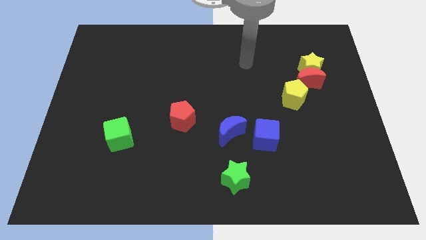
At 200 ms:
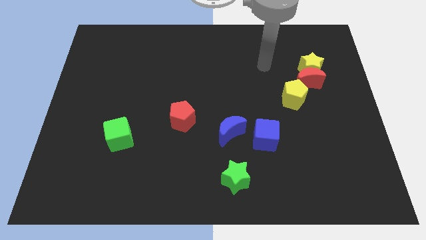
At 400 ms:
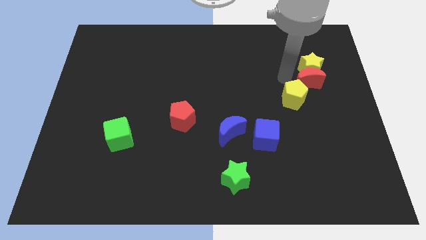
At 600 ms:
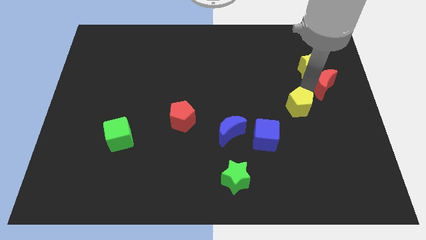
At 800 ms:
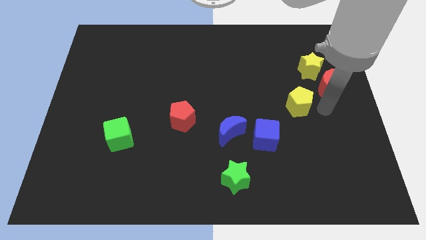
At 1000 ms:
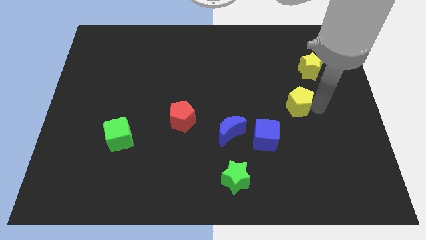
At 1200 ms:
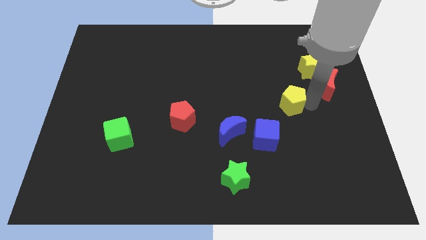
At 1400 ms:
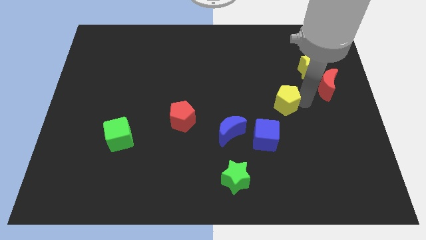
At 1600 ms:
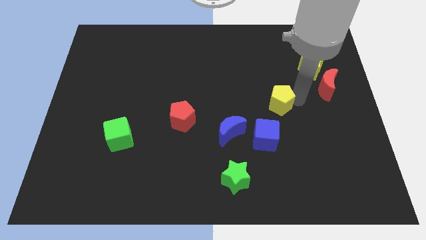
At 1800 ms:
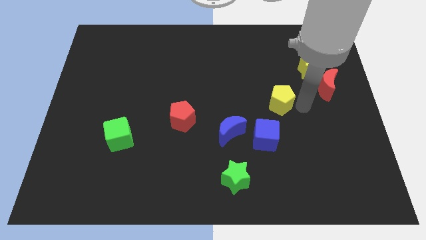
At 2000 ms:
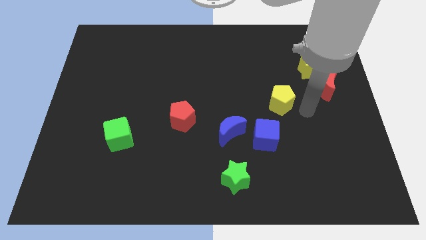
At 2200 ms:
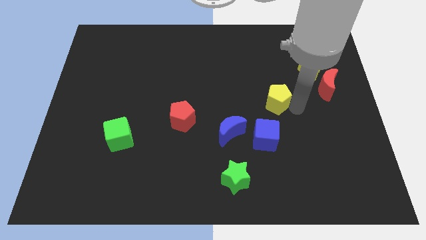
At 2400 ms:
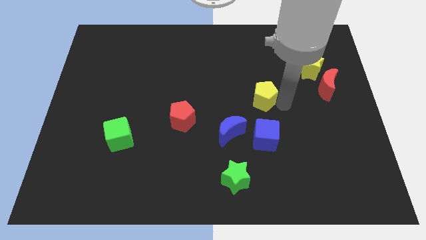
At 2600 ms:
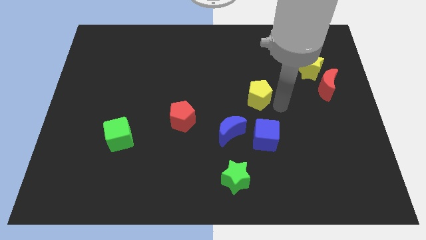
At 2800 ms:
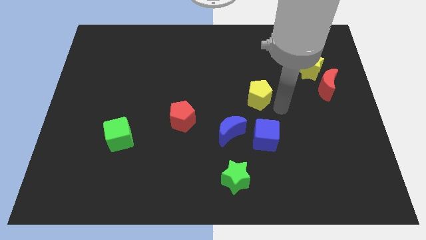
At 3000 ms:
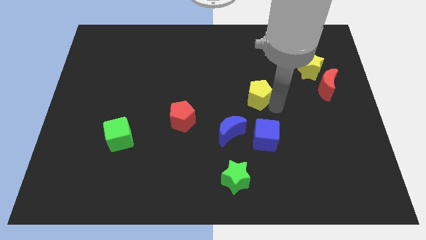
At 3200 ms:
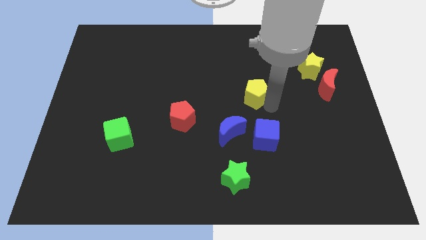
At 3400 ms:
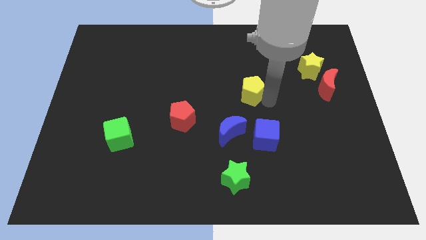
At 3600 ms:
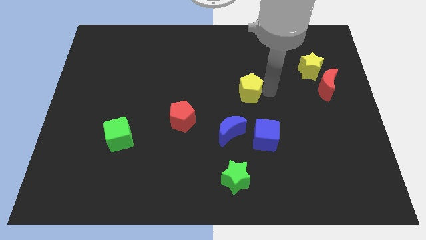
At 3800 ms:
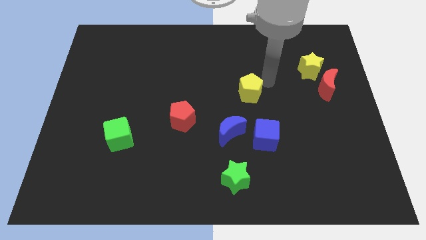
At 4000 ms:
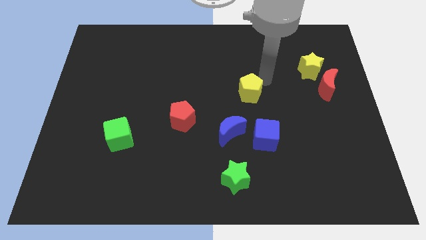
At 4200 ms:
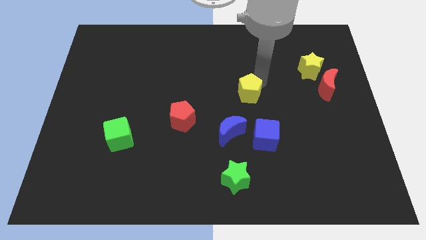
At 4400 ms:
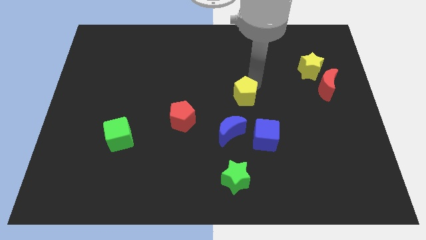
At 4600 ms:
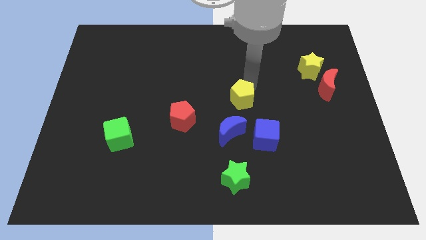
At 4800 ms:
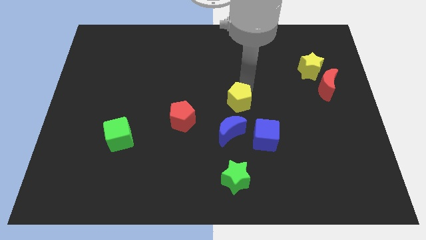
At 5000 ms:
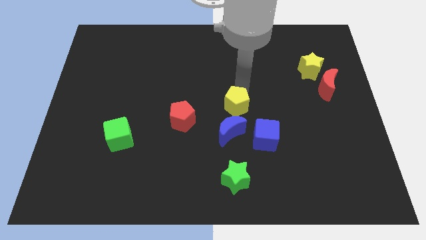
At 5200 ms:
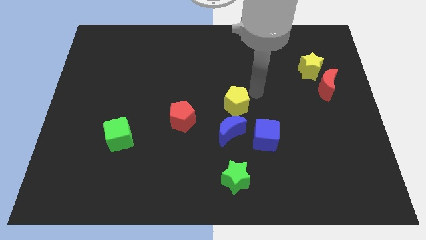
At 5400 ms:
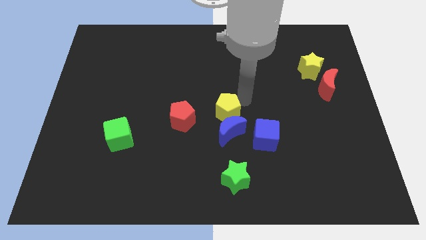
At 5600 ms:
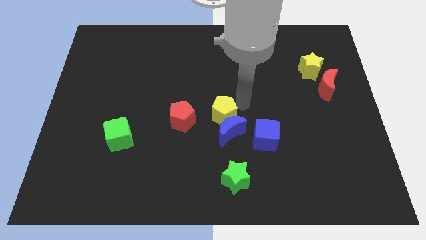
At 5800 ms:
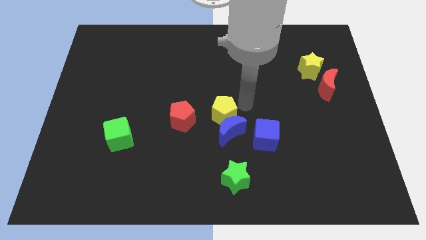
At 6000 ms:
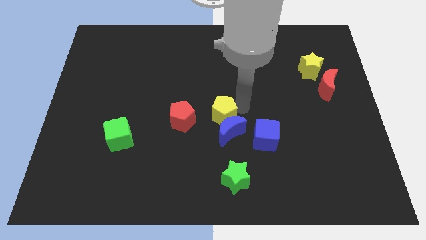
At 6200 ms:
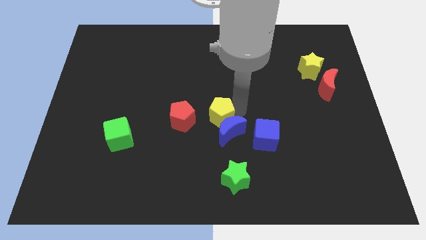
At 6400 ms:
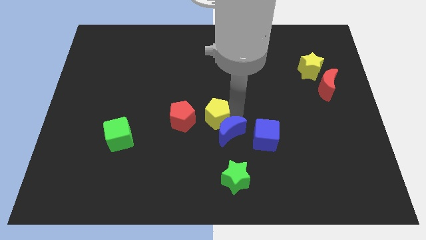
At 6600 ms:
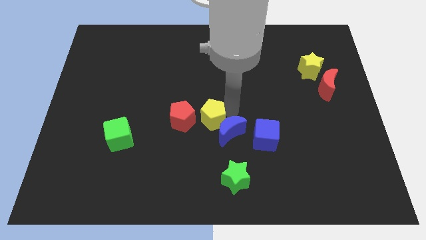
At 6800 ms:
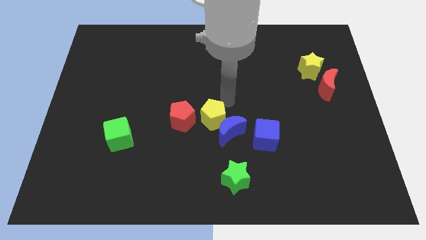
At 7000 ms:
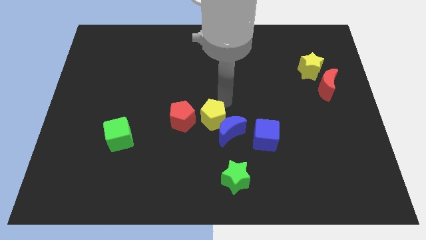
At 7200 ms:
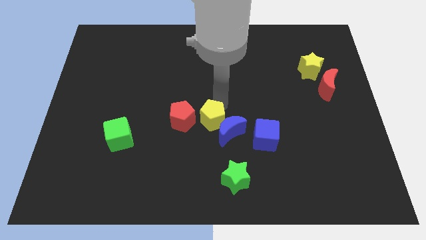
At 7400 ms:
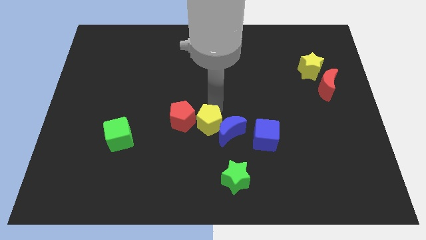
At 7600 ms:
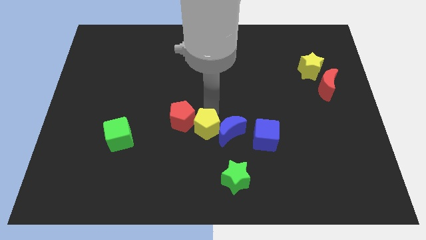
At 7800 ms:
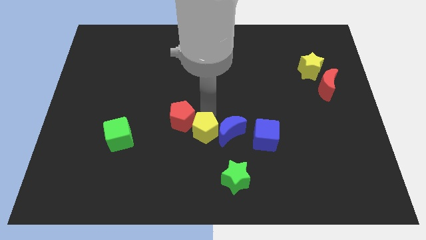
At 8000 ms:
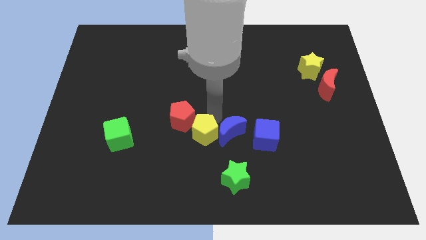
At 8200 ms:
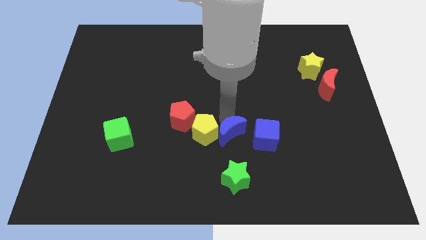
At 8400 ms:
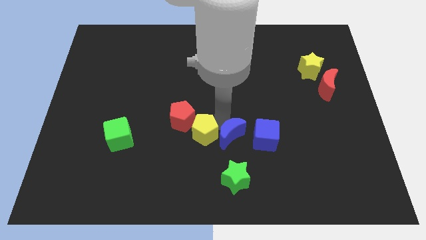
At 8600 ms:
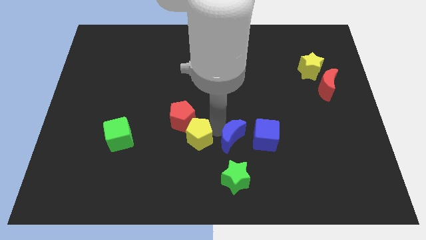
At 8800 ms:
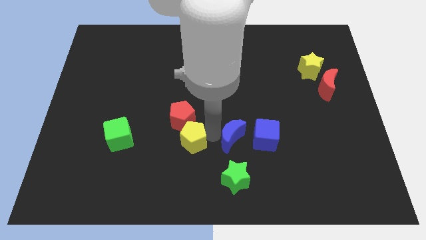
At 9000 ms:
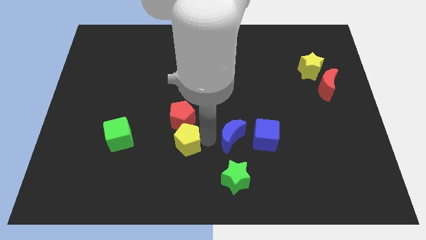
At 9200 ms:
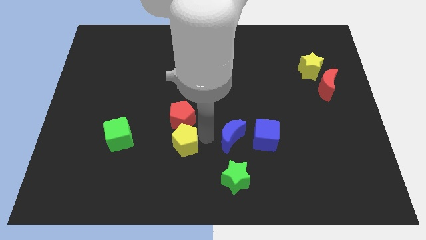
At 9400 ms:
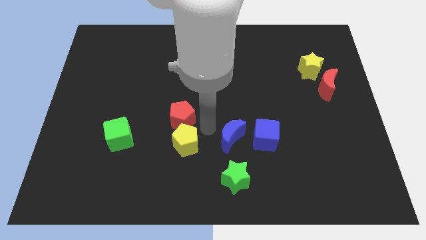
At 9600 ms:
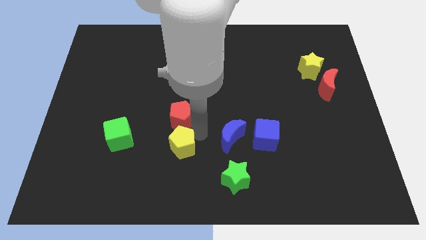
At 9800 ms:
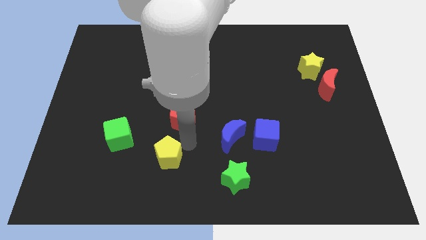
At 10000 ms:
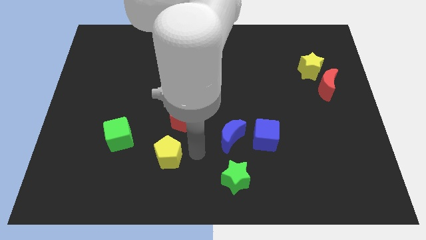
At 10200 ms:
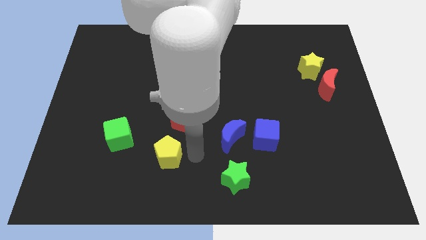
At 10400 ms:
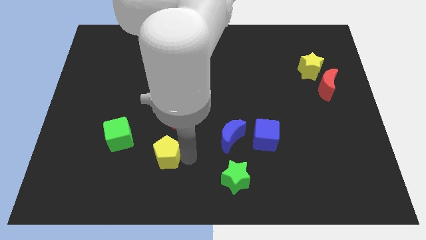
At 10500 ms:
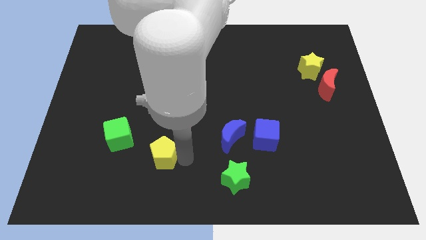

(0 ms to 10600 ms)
move the yellow pentagon to the bottom right of the green cube

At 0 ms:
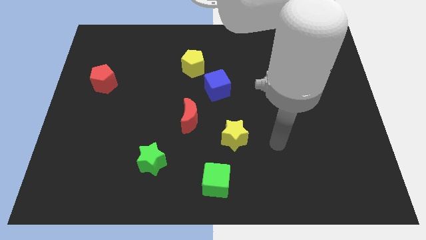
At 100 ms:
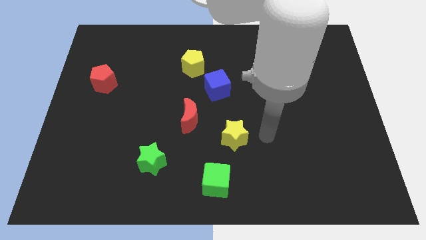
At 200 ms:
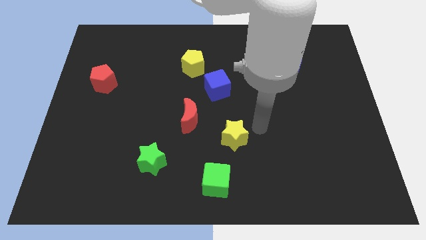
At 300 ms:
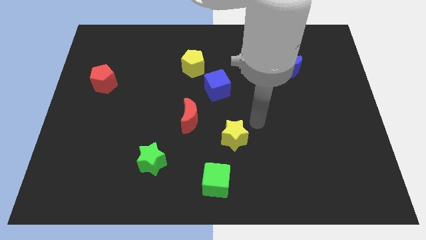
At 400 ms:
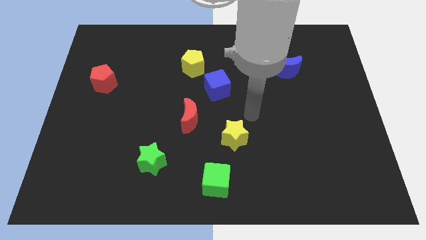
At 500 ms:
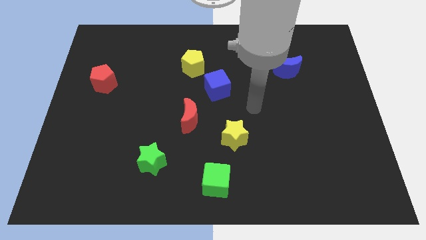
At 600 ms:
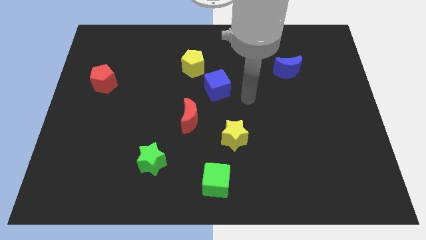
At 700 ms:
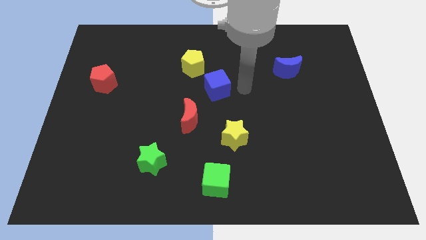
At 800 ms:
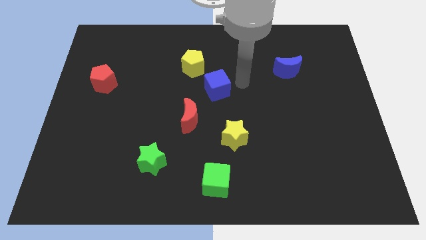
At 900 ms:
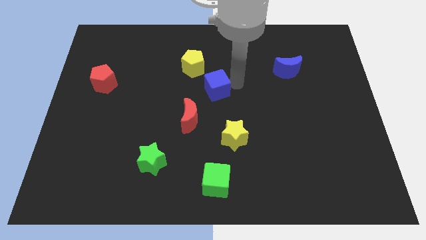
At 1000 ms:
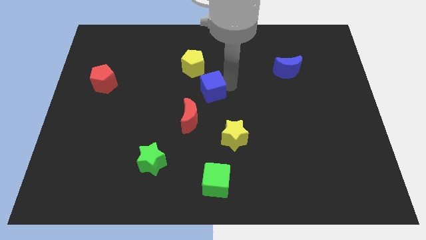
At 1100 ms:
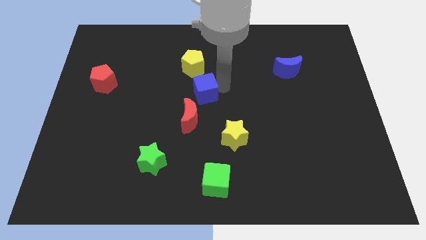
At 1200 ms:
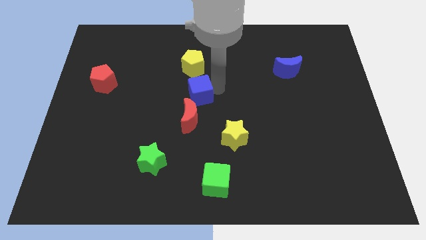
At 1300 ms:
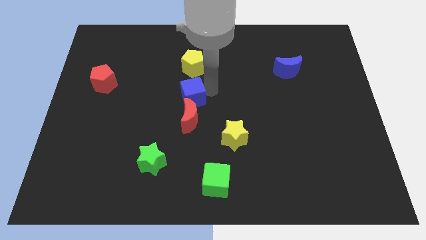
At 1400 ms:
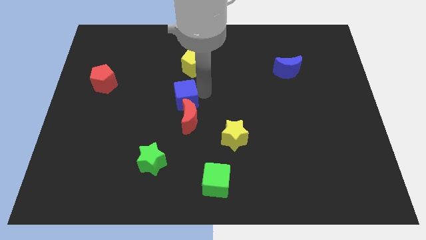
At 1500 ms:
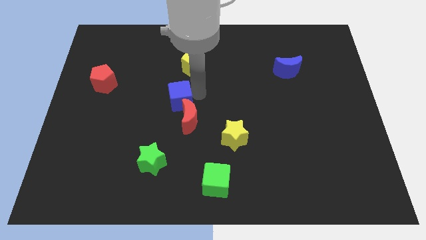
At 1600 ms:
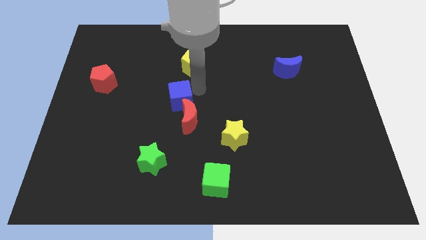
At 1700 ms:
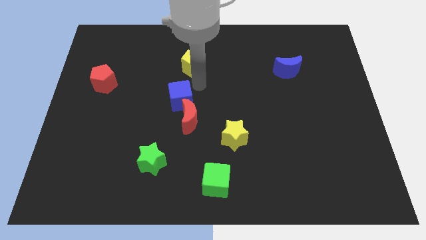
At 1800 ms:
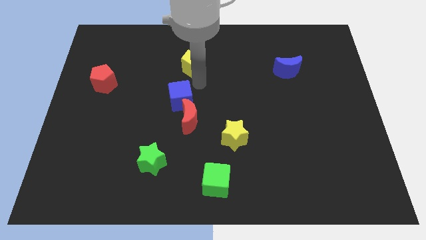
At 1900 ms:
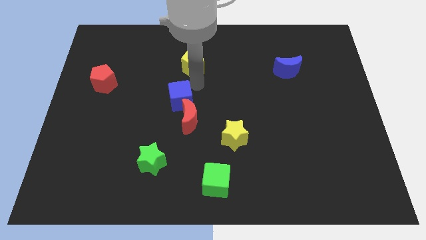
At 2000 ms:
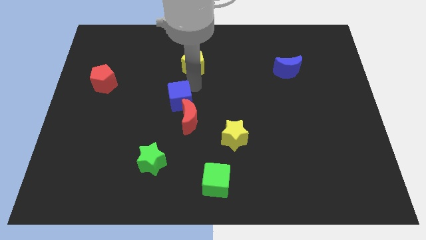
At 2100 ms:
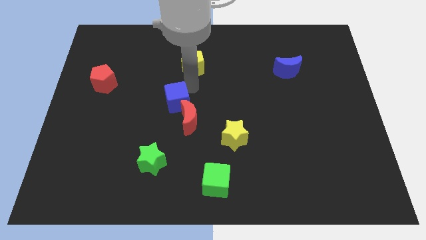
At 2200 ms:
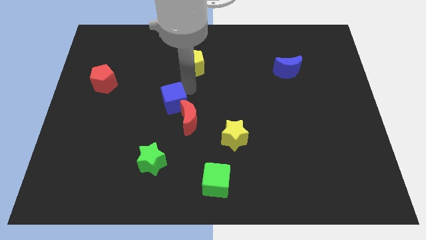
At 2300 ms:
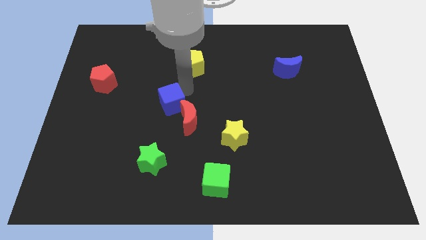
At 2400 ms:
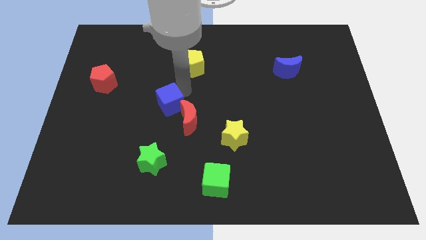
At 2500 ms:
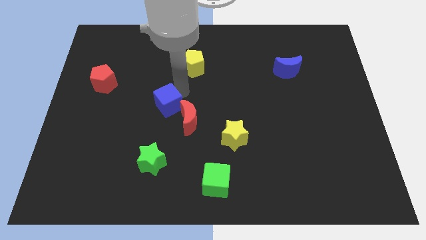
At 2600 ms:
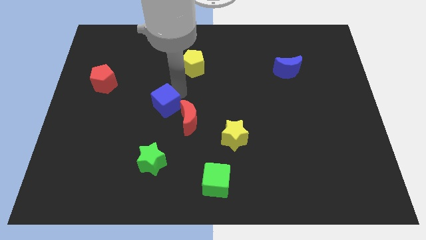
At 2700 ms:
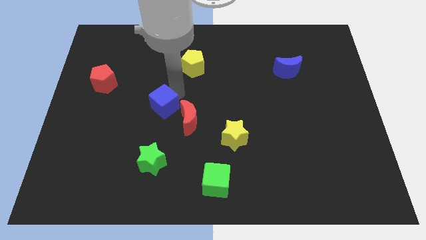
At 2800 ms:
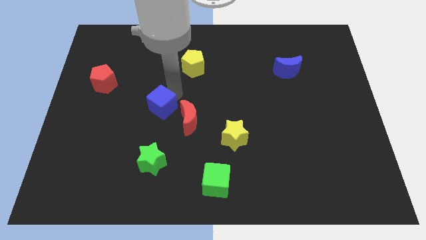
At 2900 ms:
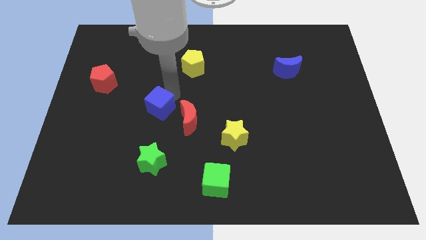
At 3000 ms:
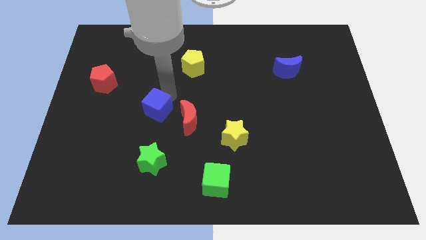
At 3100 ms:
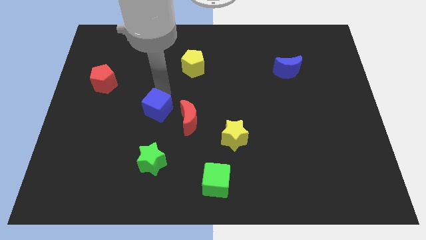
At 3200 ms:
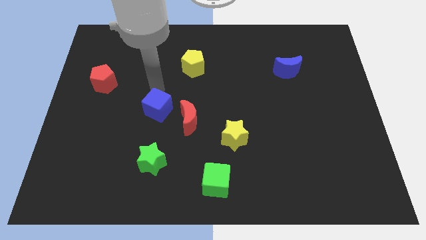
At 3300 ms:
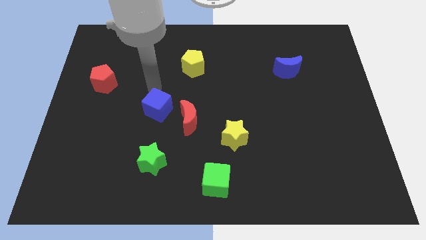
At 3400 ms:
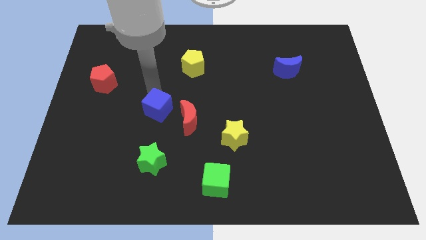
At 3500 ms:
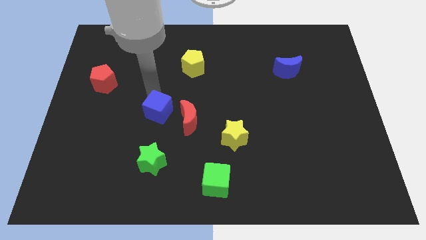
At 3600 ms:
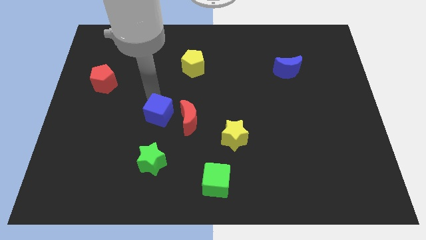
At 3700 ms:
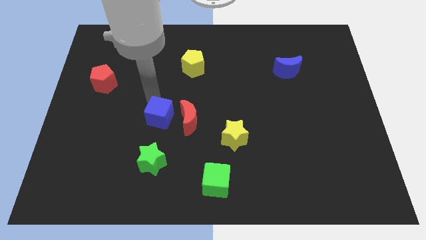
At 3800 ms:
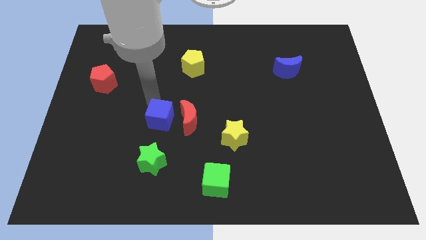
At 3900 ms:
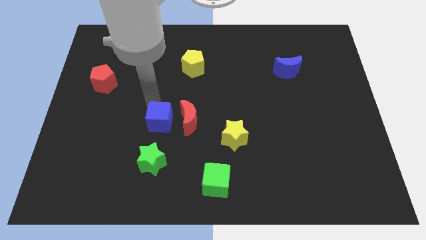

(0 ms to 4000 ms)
slide the blue cube to the bottom left of the red moon
